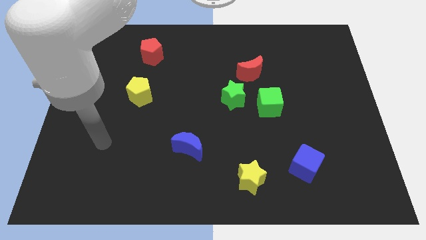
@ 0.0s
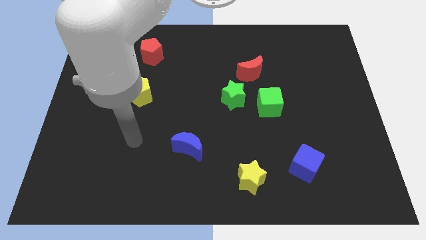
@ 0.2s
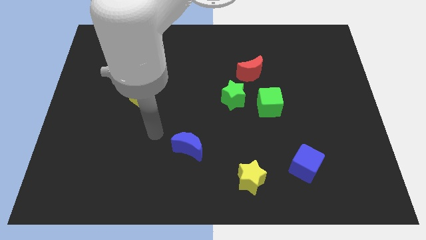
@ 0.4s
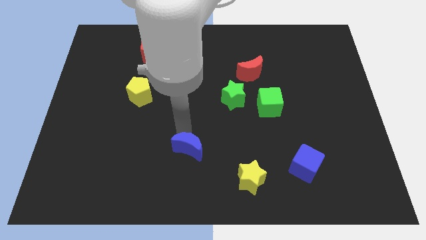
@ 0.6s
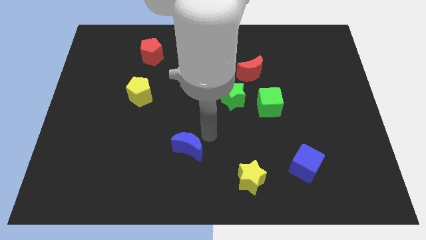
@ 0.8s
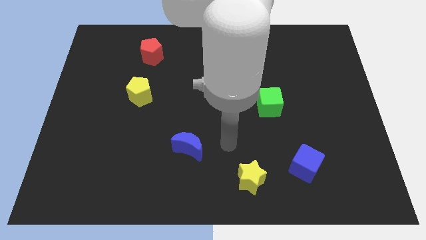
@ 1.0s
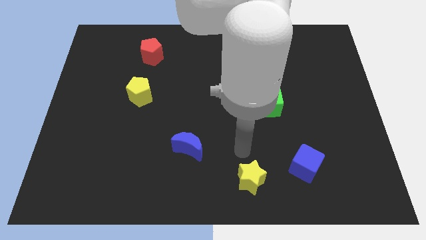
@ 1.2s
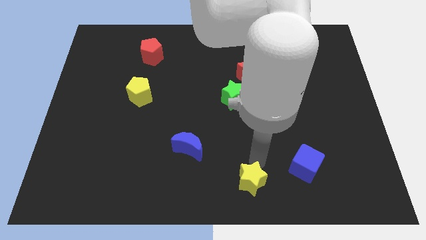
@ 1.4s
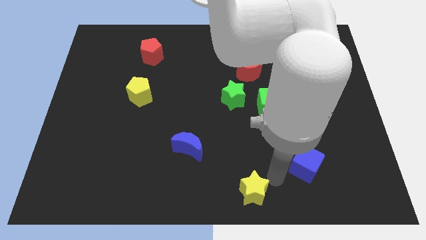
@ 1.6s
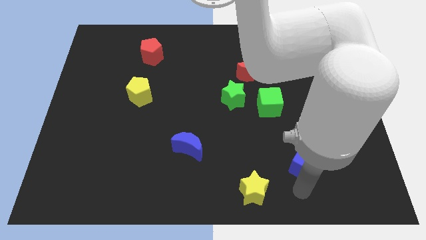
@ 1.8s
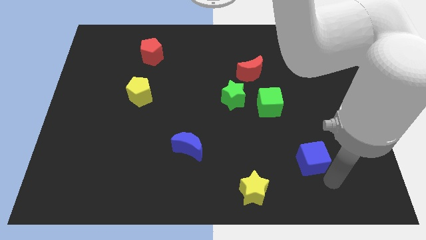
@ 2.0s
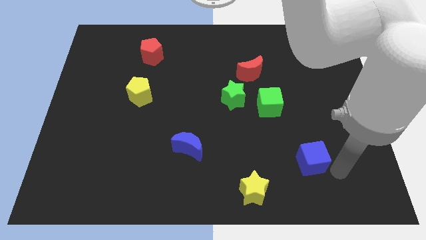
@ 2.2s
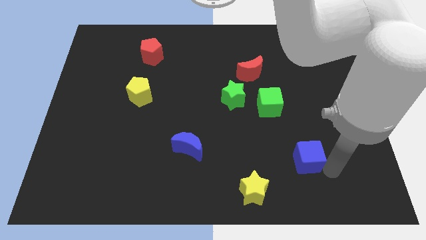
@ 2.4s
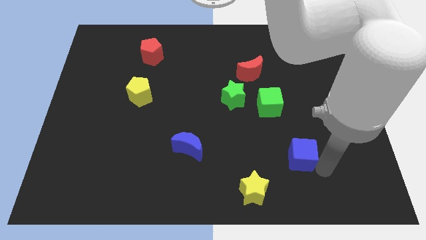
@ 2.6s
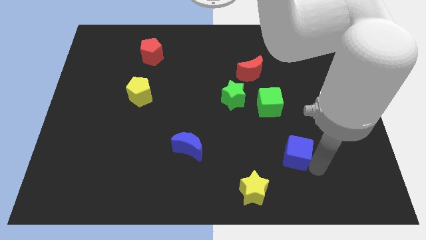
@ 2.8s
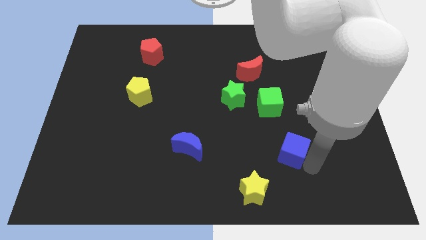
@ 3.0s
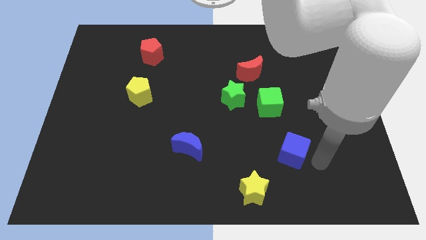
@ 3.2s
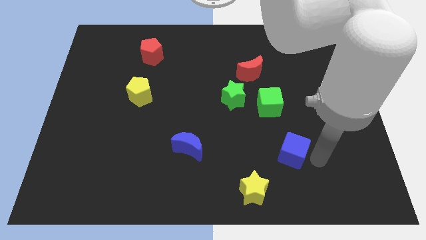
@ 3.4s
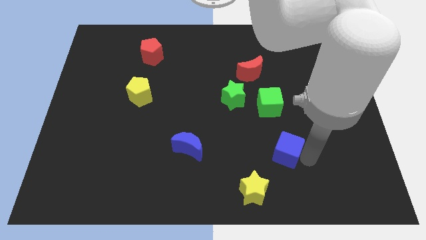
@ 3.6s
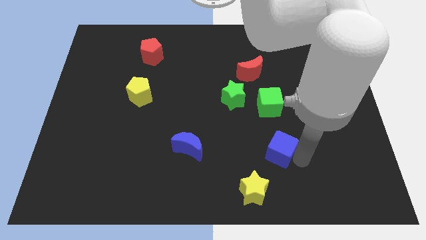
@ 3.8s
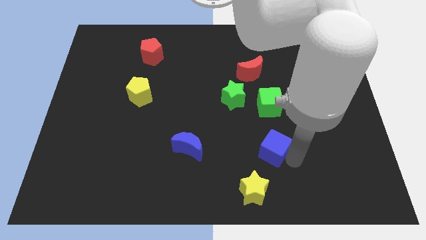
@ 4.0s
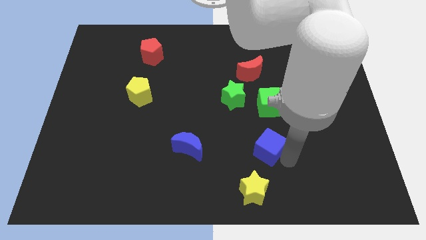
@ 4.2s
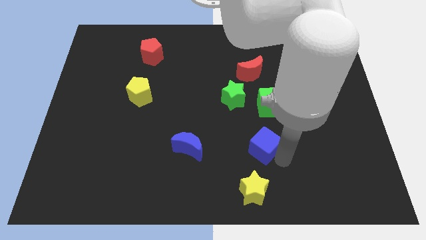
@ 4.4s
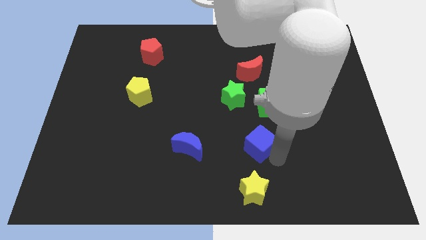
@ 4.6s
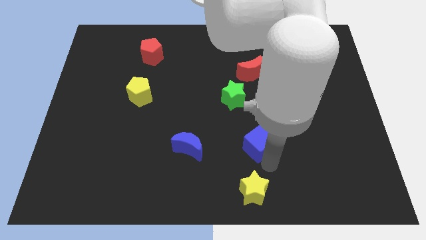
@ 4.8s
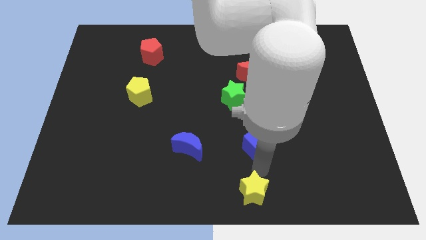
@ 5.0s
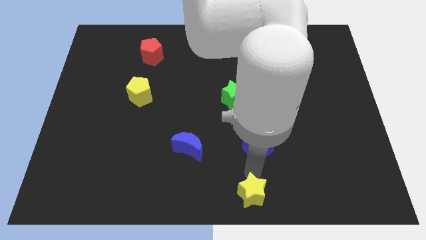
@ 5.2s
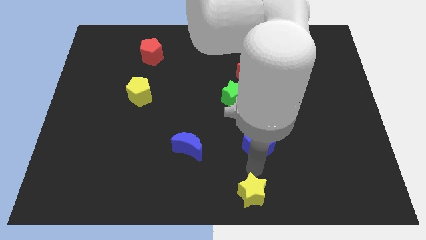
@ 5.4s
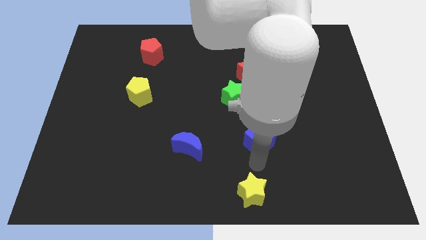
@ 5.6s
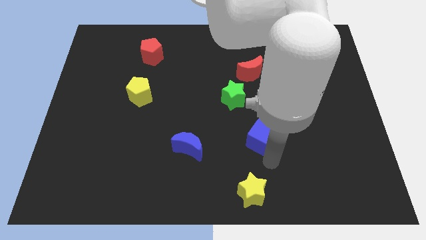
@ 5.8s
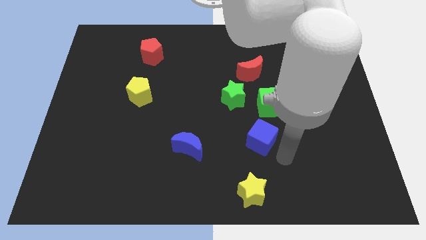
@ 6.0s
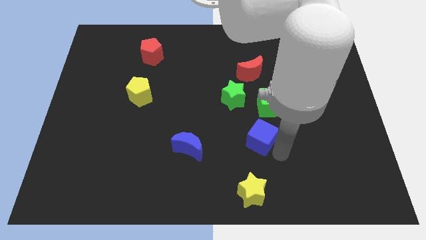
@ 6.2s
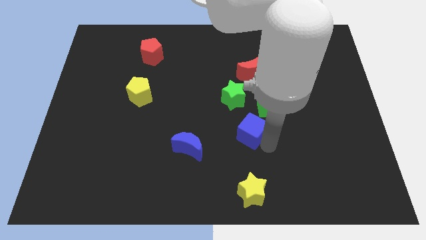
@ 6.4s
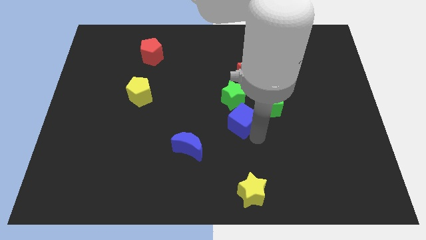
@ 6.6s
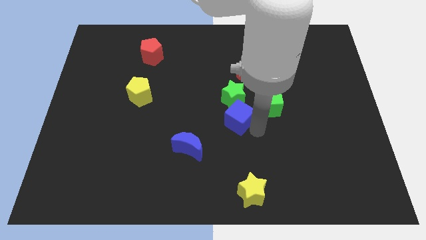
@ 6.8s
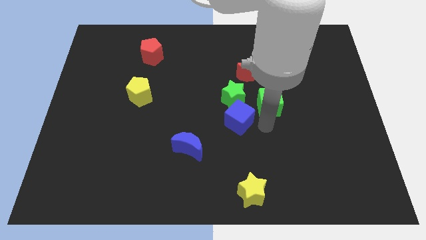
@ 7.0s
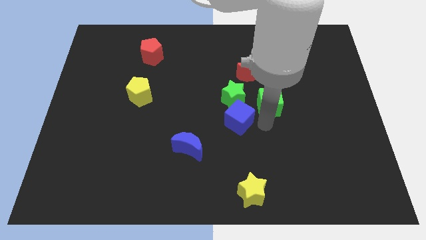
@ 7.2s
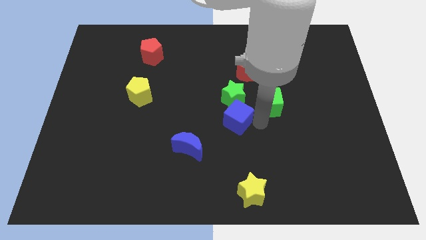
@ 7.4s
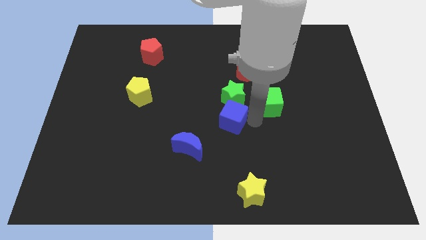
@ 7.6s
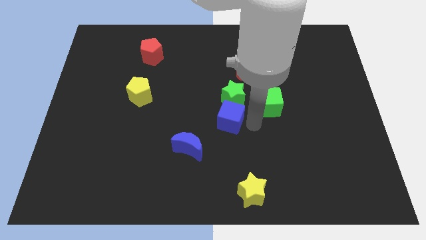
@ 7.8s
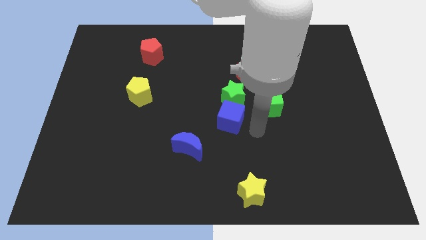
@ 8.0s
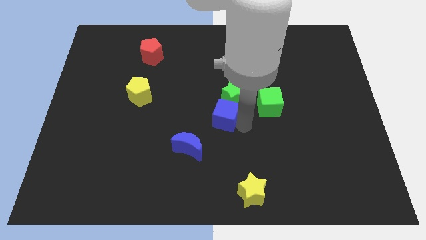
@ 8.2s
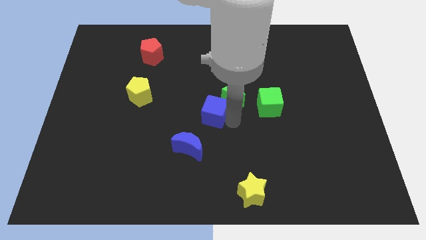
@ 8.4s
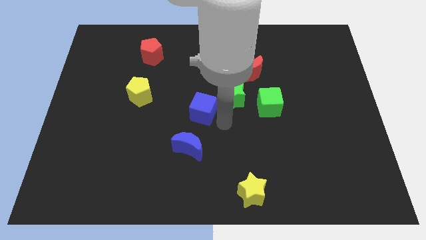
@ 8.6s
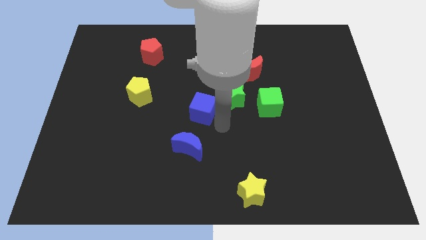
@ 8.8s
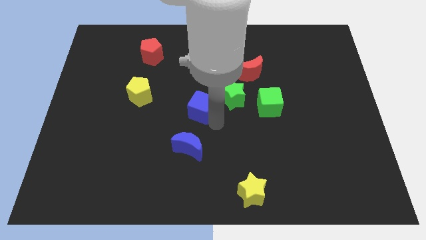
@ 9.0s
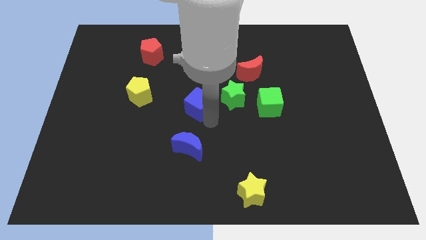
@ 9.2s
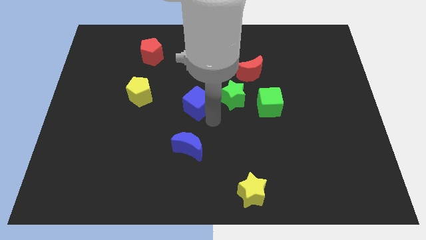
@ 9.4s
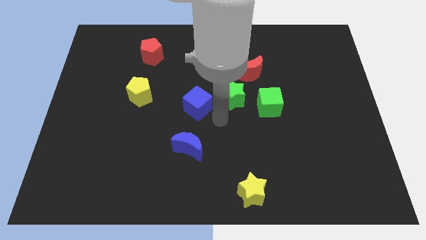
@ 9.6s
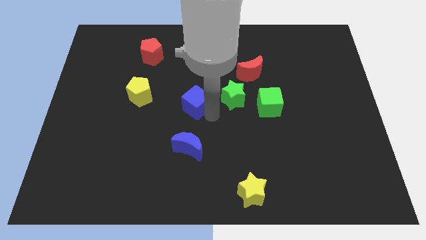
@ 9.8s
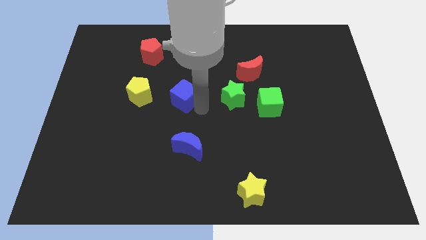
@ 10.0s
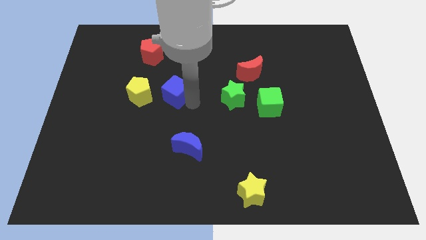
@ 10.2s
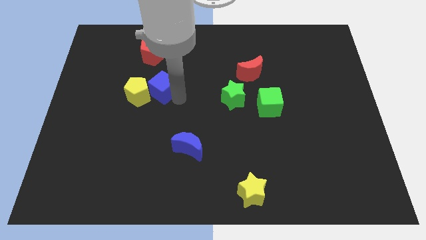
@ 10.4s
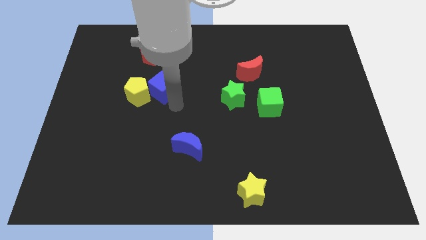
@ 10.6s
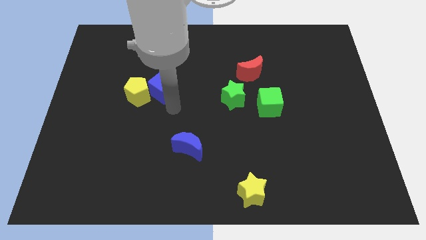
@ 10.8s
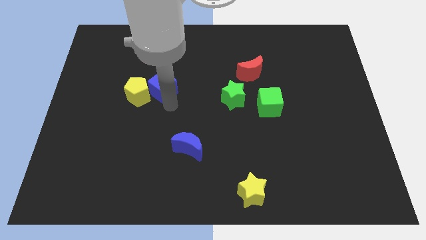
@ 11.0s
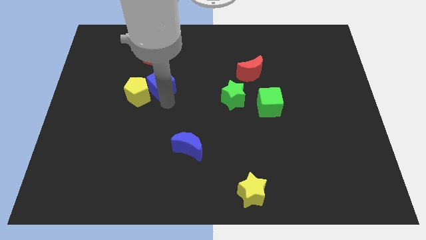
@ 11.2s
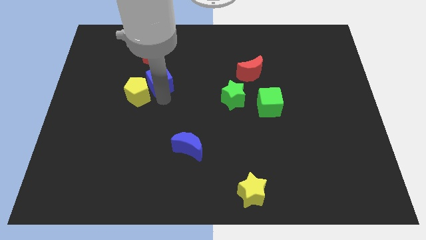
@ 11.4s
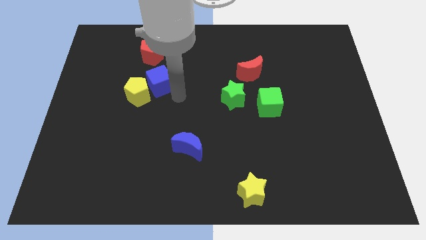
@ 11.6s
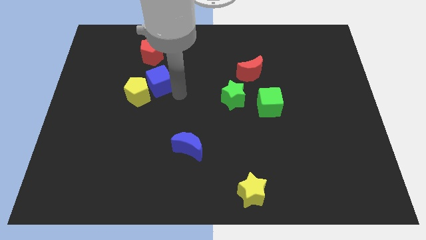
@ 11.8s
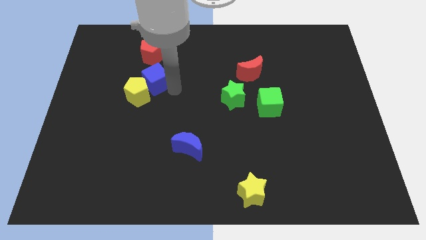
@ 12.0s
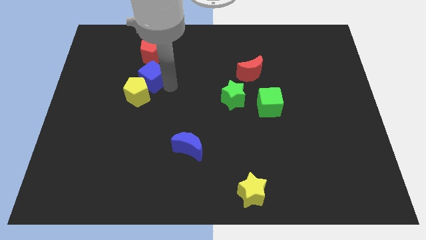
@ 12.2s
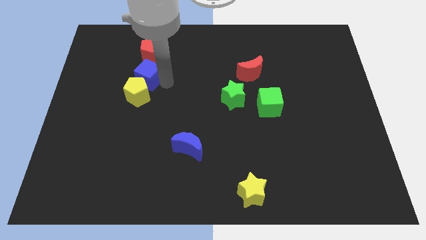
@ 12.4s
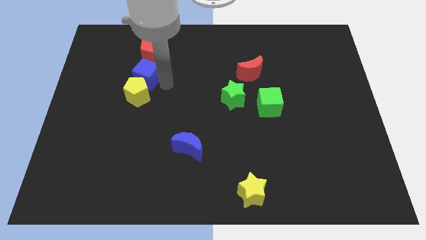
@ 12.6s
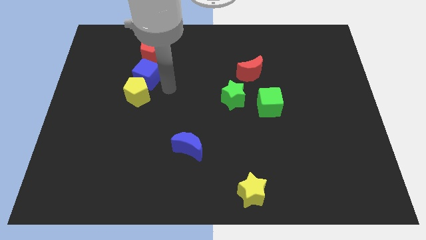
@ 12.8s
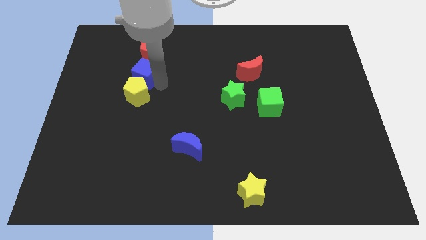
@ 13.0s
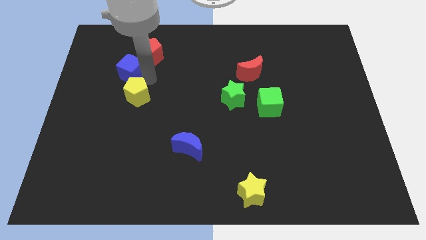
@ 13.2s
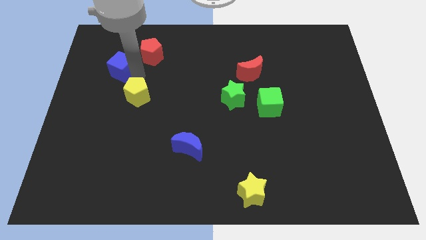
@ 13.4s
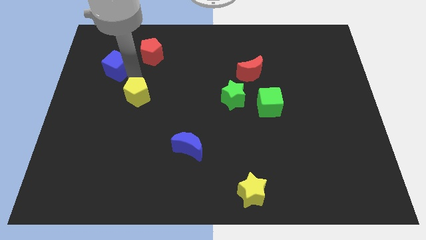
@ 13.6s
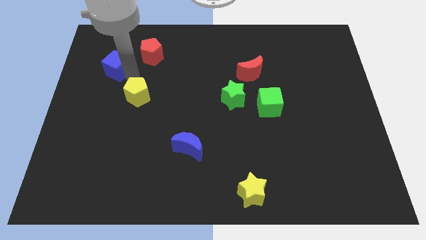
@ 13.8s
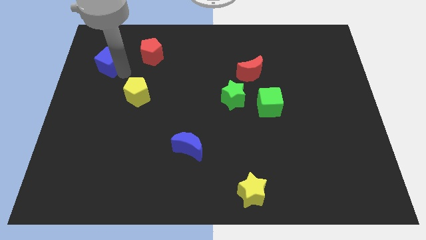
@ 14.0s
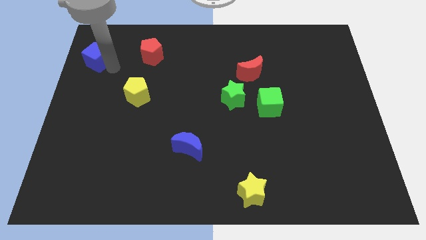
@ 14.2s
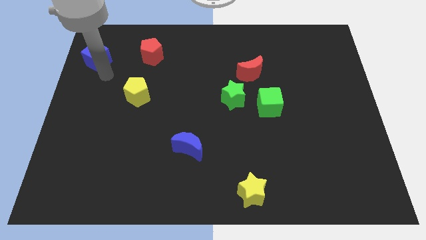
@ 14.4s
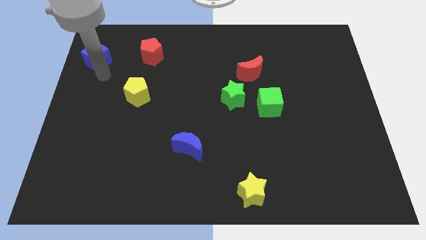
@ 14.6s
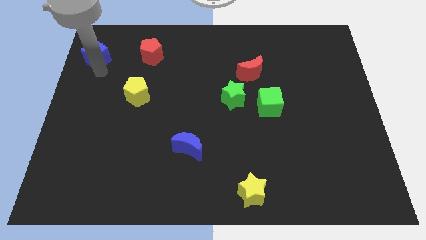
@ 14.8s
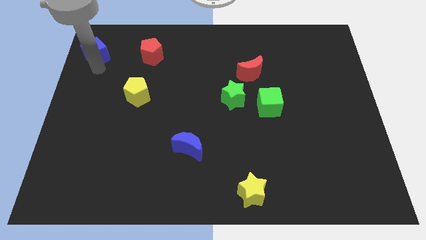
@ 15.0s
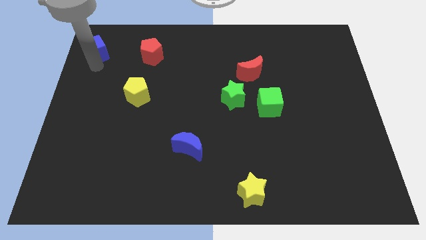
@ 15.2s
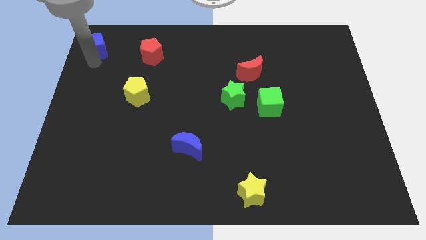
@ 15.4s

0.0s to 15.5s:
put the blue cube to the upper left corner
